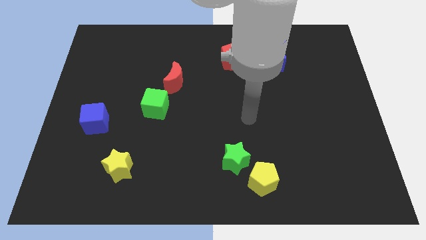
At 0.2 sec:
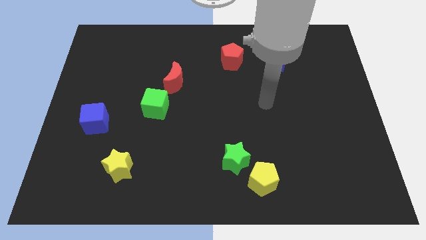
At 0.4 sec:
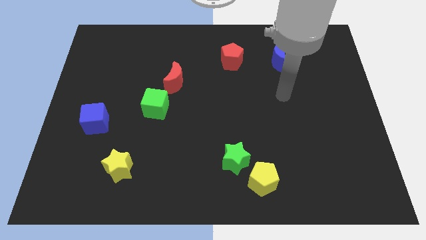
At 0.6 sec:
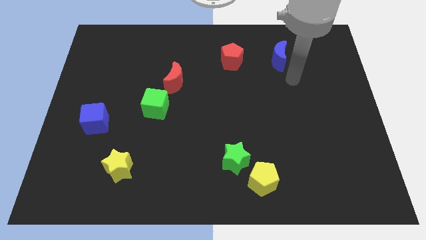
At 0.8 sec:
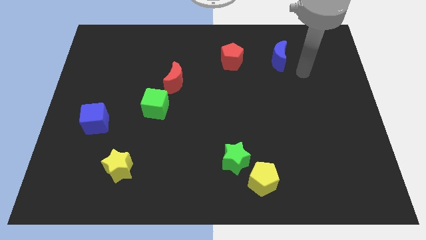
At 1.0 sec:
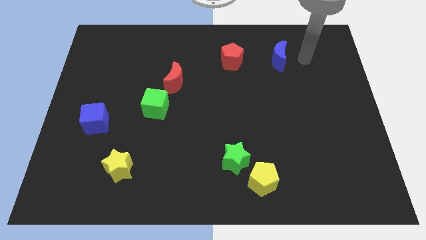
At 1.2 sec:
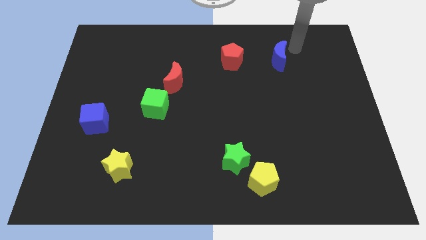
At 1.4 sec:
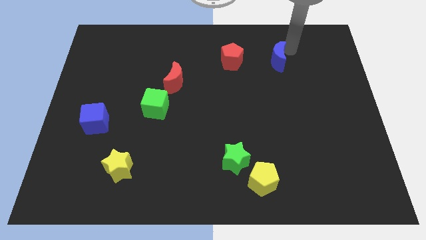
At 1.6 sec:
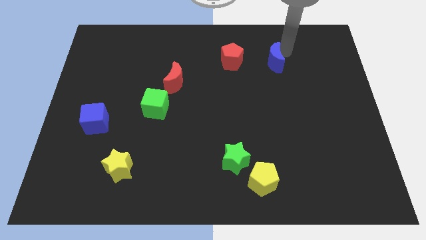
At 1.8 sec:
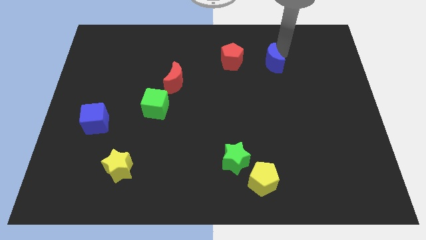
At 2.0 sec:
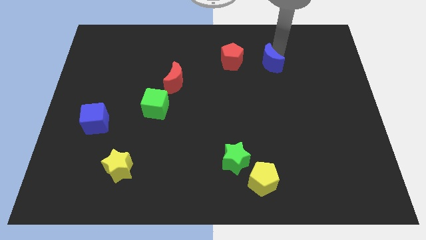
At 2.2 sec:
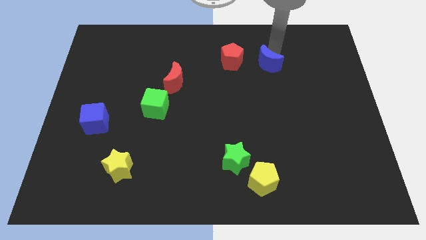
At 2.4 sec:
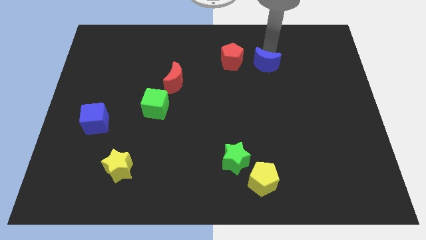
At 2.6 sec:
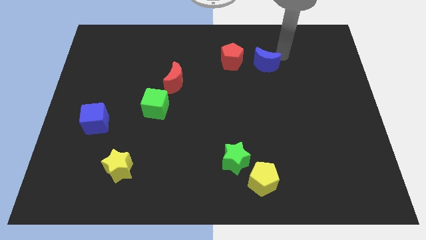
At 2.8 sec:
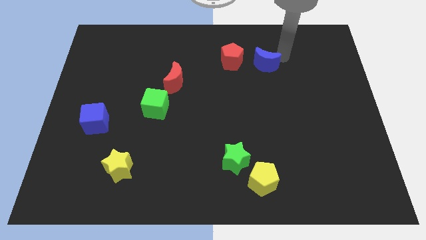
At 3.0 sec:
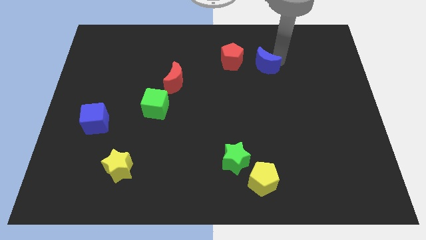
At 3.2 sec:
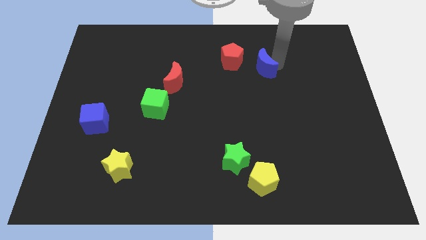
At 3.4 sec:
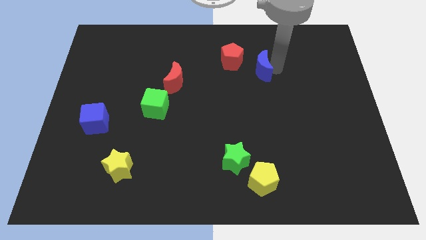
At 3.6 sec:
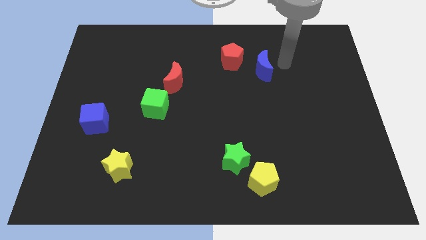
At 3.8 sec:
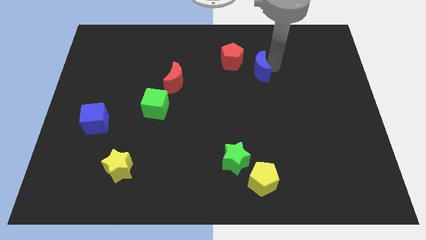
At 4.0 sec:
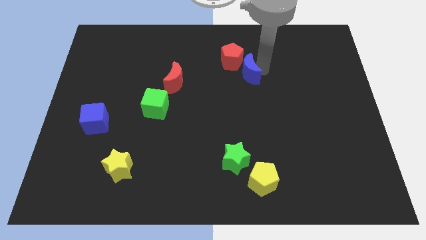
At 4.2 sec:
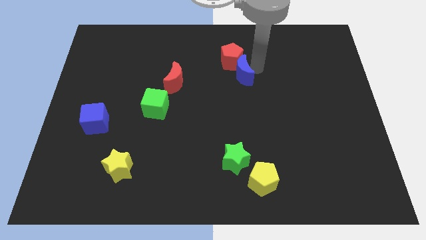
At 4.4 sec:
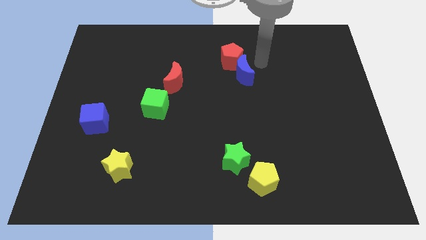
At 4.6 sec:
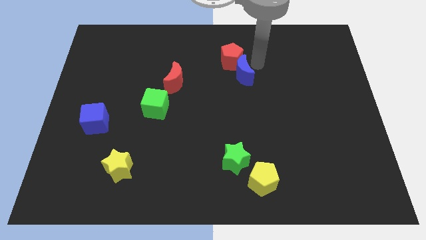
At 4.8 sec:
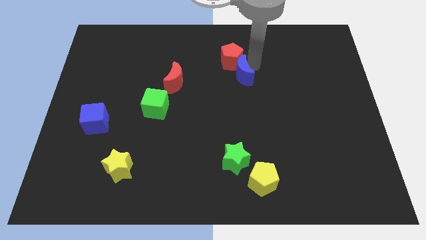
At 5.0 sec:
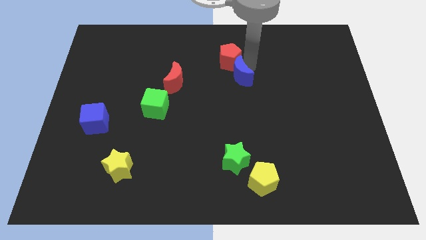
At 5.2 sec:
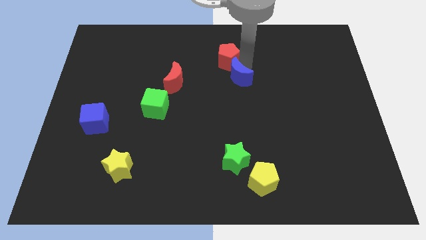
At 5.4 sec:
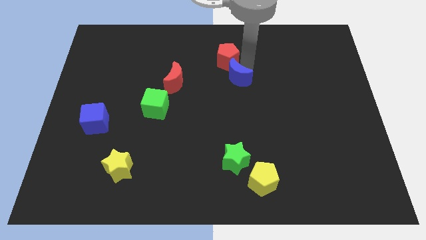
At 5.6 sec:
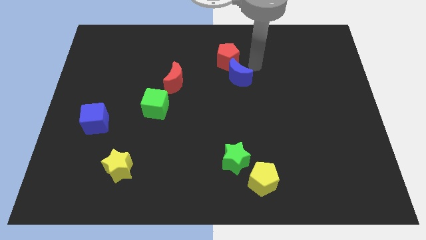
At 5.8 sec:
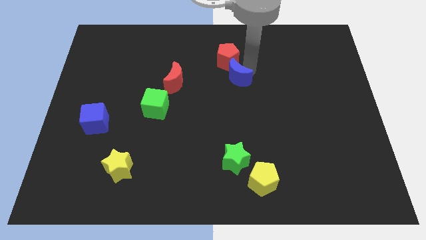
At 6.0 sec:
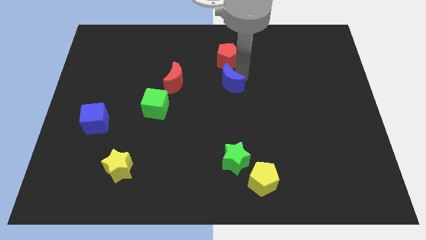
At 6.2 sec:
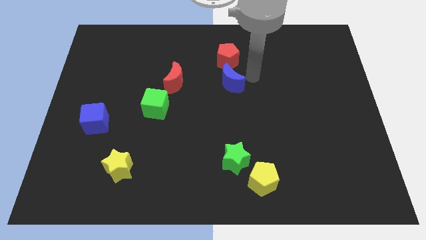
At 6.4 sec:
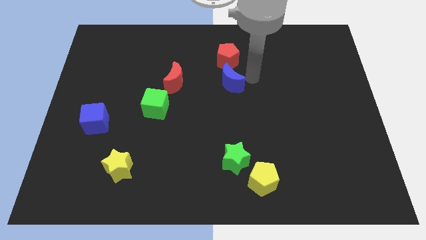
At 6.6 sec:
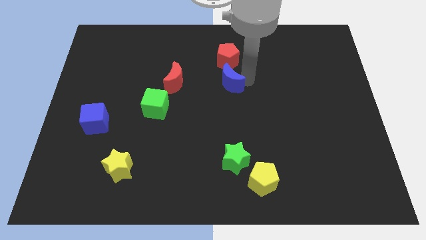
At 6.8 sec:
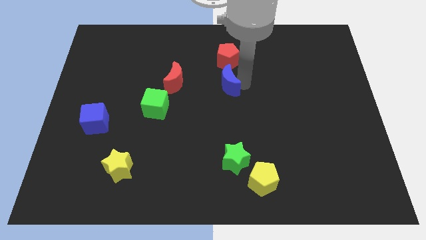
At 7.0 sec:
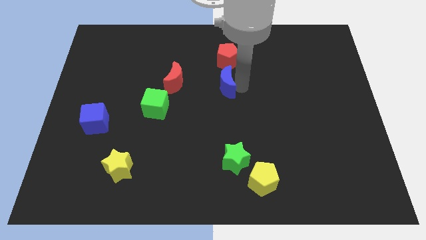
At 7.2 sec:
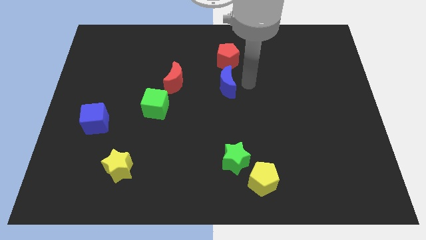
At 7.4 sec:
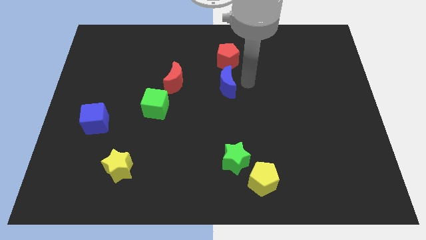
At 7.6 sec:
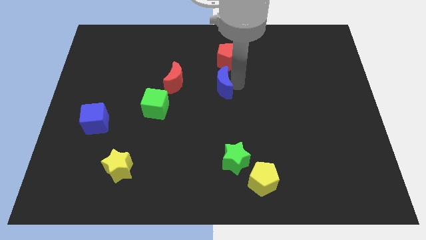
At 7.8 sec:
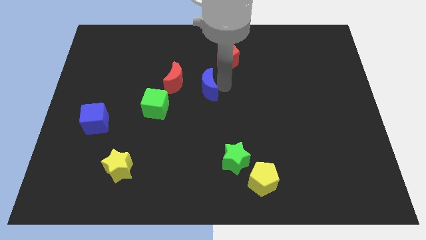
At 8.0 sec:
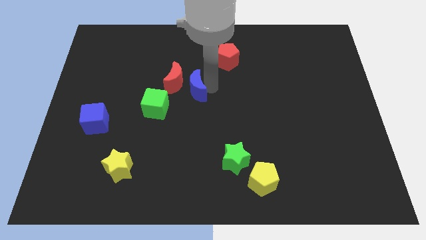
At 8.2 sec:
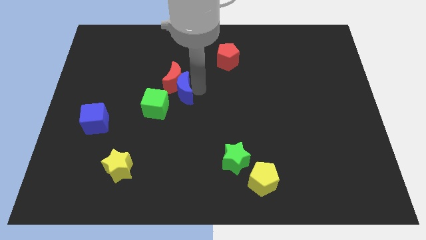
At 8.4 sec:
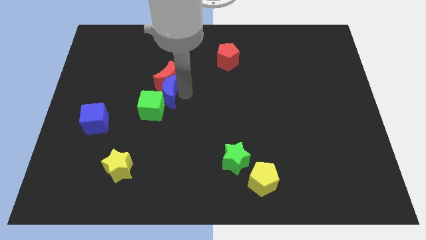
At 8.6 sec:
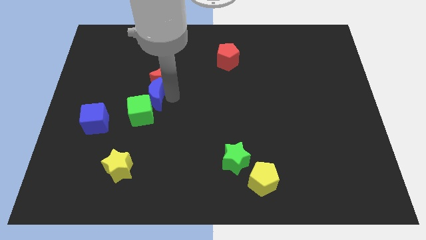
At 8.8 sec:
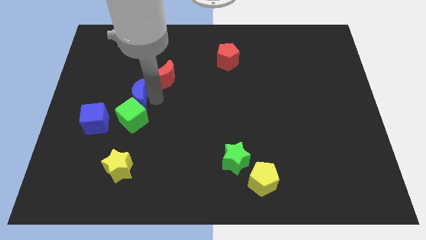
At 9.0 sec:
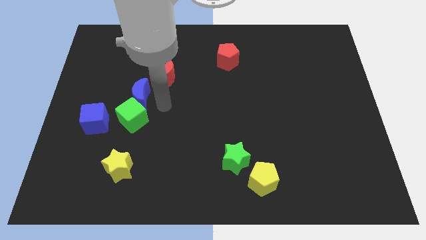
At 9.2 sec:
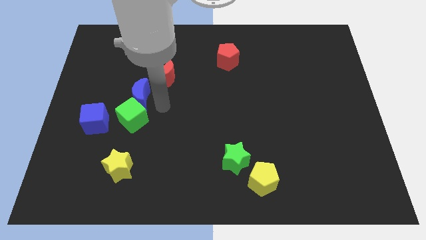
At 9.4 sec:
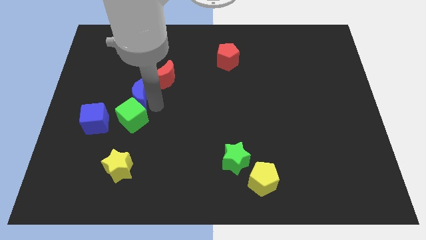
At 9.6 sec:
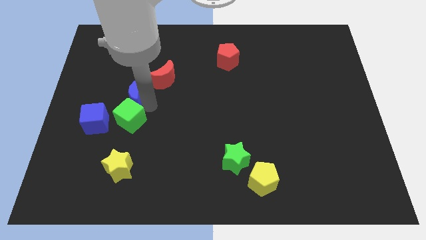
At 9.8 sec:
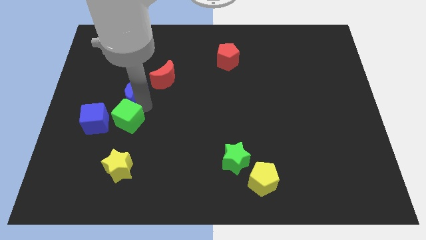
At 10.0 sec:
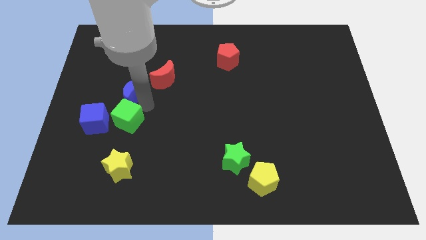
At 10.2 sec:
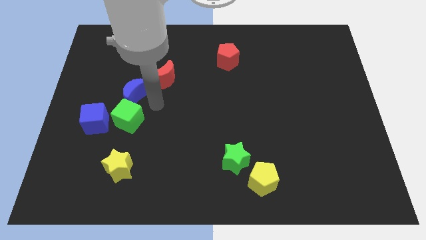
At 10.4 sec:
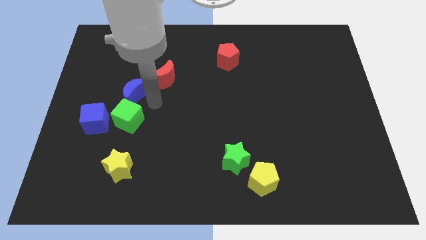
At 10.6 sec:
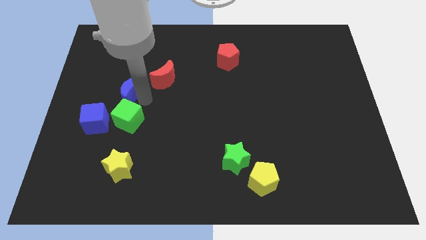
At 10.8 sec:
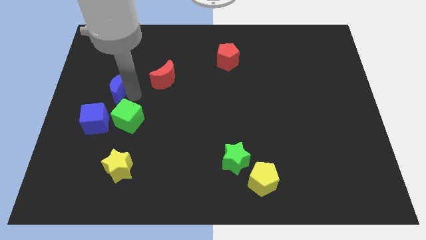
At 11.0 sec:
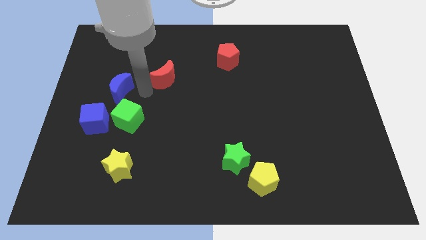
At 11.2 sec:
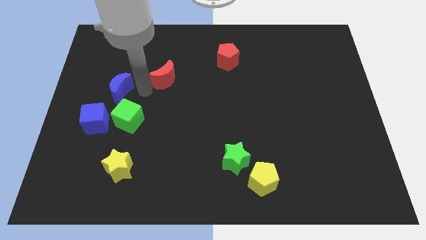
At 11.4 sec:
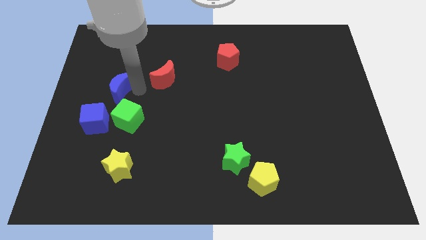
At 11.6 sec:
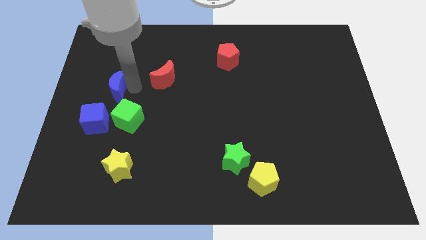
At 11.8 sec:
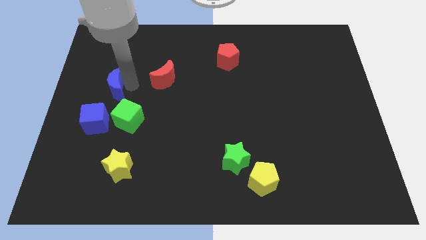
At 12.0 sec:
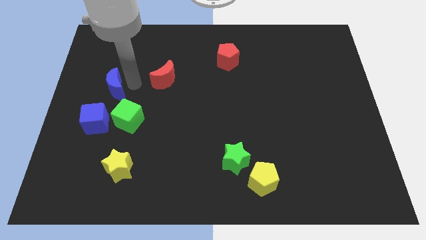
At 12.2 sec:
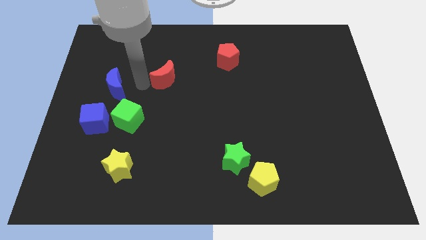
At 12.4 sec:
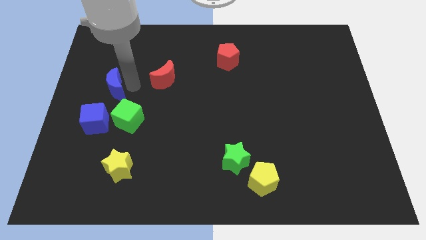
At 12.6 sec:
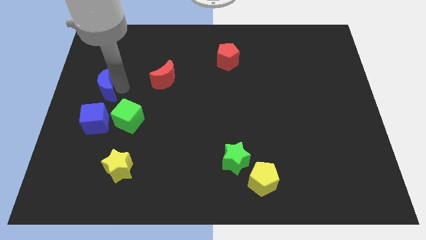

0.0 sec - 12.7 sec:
slide the blue moon to the left side of the board

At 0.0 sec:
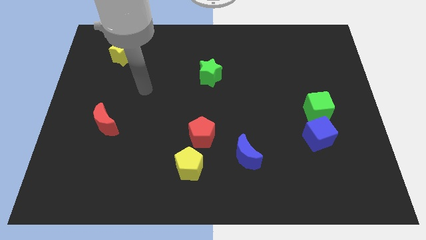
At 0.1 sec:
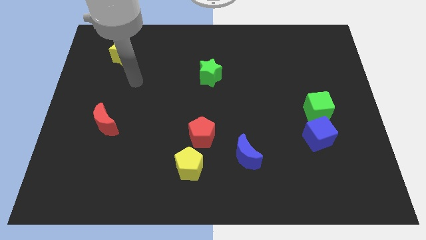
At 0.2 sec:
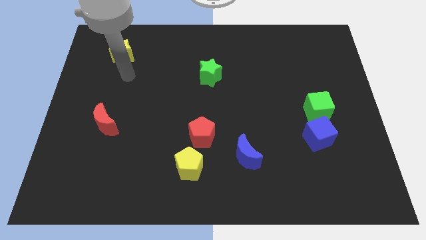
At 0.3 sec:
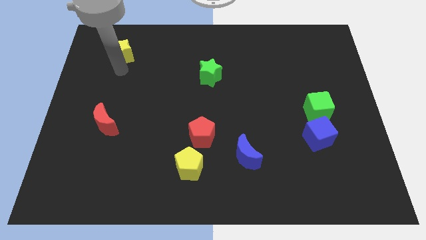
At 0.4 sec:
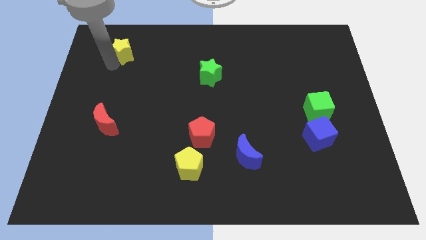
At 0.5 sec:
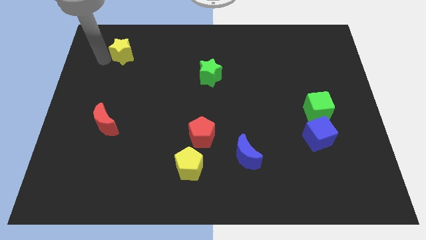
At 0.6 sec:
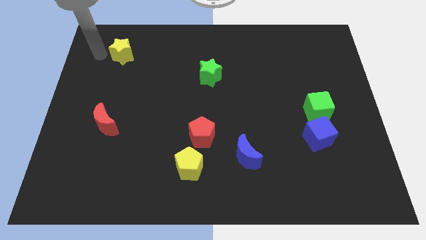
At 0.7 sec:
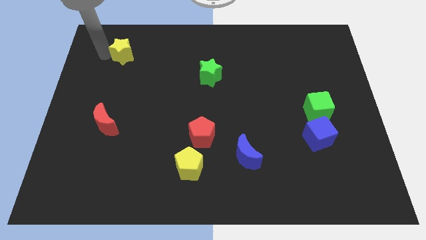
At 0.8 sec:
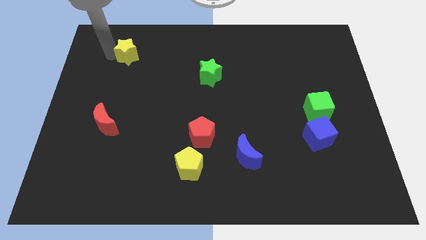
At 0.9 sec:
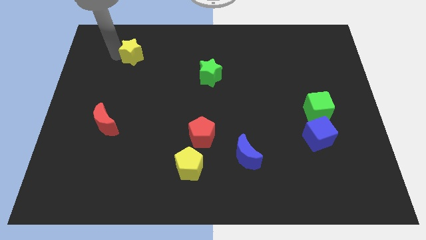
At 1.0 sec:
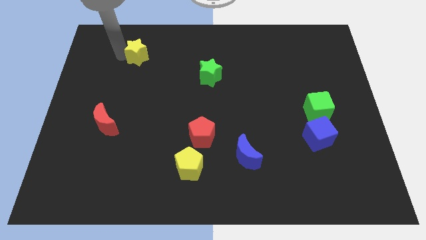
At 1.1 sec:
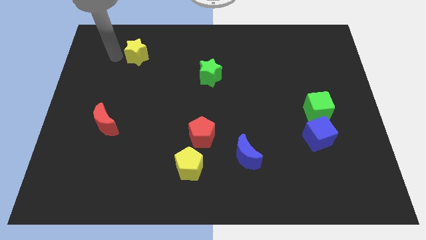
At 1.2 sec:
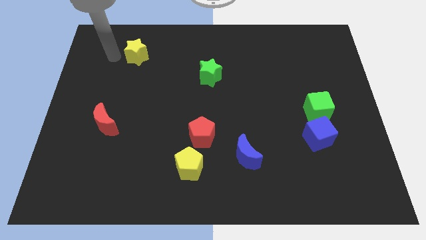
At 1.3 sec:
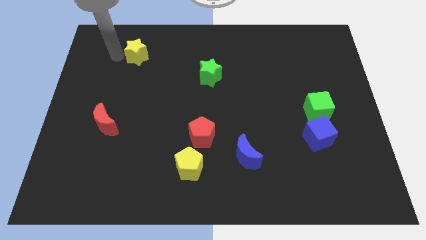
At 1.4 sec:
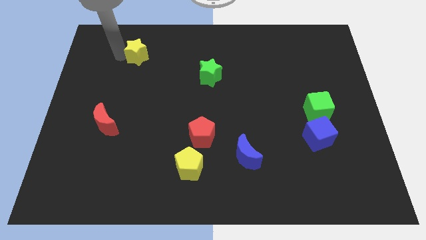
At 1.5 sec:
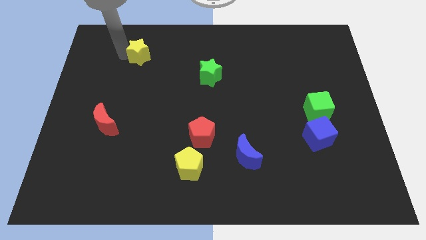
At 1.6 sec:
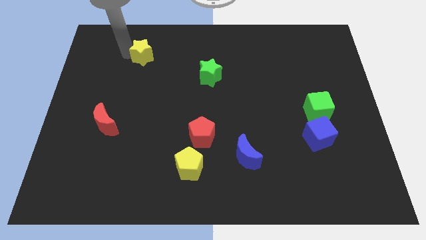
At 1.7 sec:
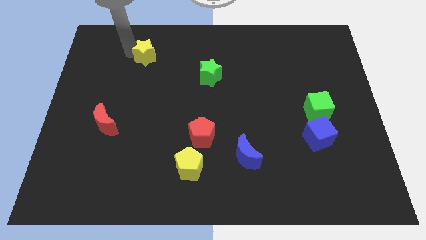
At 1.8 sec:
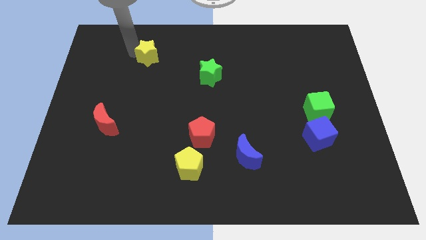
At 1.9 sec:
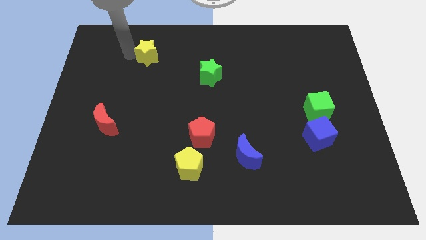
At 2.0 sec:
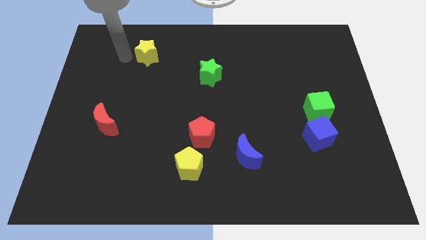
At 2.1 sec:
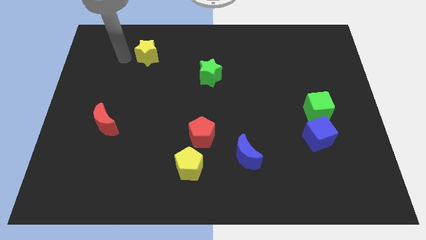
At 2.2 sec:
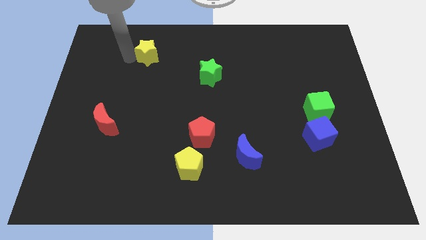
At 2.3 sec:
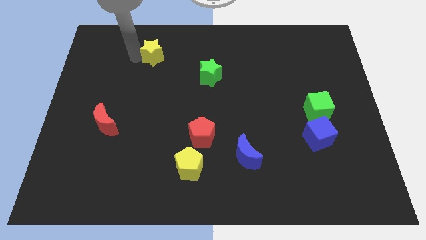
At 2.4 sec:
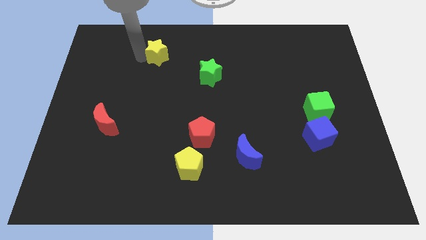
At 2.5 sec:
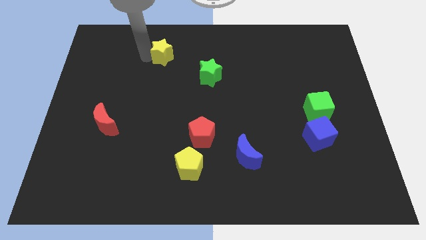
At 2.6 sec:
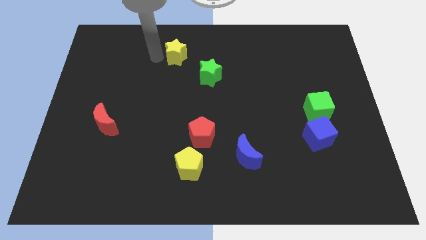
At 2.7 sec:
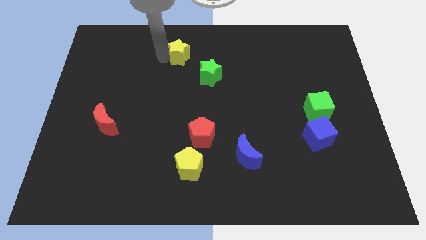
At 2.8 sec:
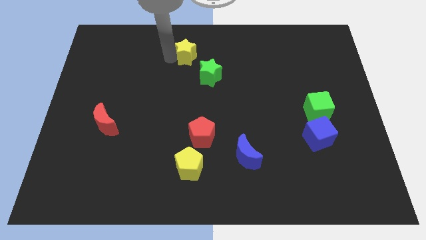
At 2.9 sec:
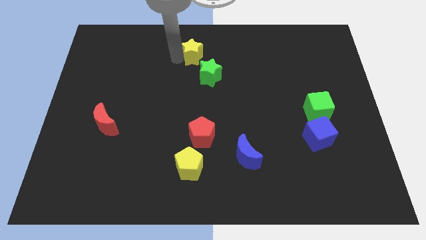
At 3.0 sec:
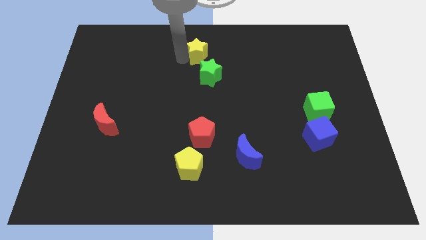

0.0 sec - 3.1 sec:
push the yellow star to the top side
